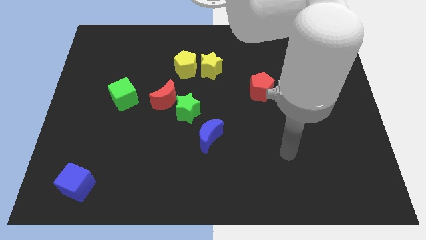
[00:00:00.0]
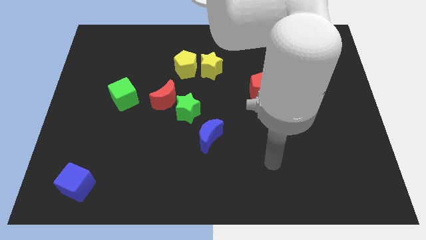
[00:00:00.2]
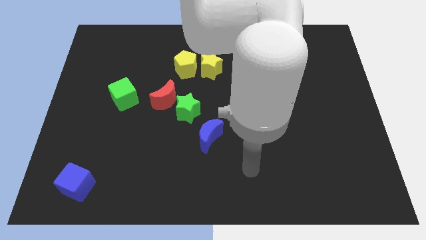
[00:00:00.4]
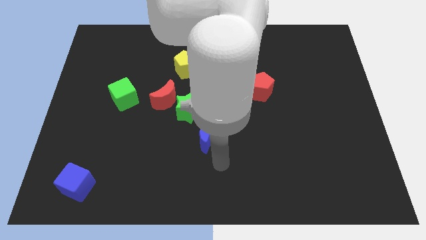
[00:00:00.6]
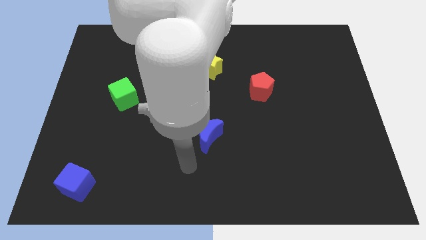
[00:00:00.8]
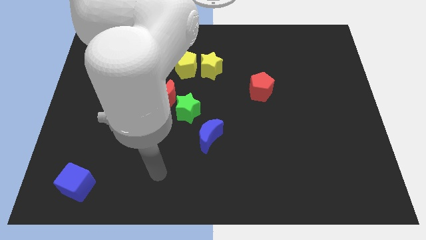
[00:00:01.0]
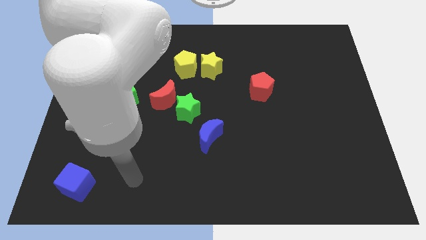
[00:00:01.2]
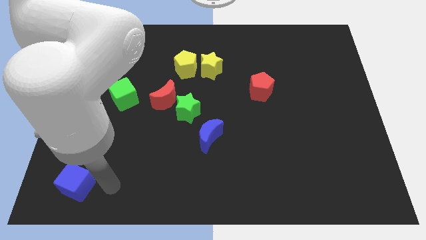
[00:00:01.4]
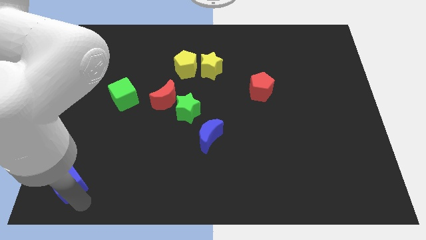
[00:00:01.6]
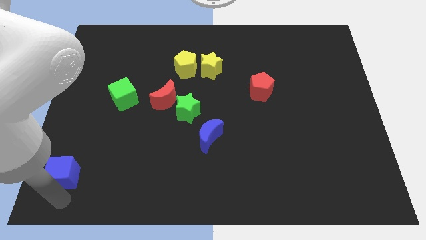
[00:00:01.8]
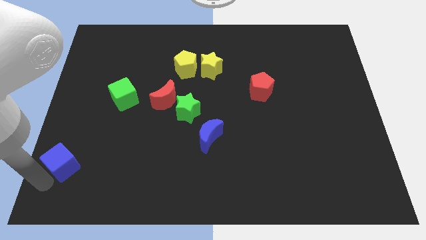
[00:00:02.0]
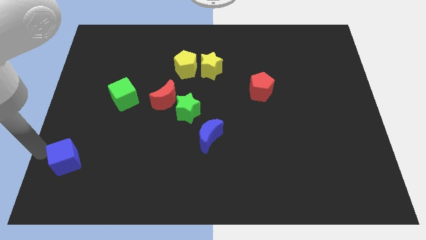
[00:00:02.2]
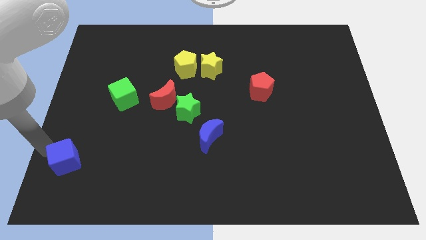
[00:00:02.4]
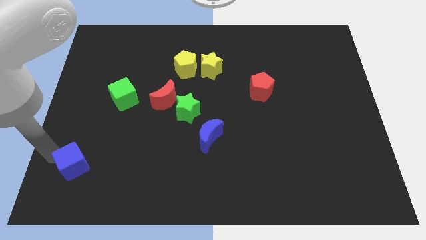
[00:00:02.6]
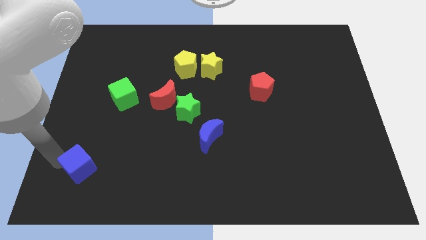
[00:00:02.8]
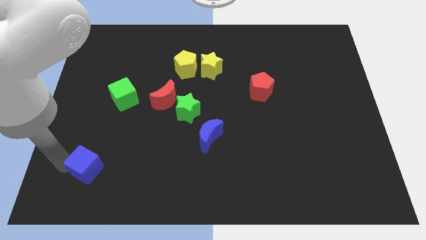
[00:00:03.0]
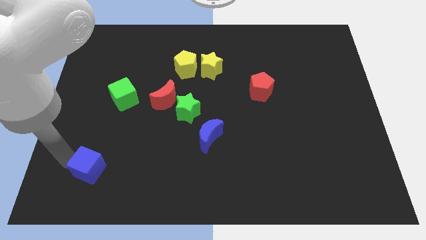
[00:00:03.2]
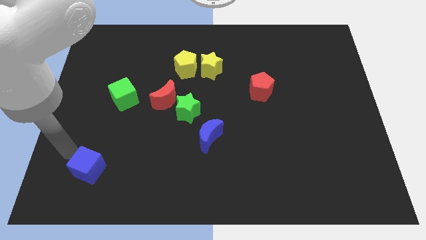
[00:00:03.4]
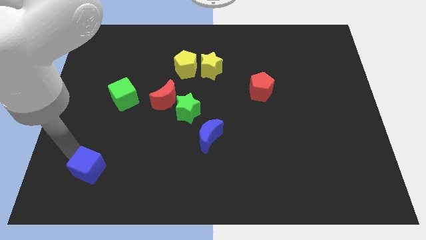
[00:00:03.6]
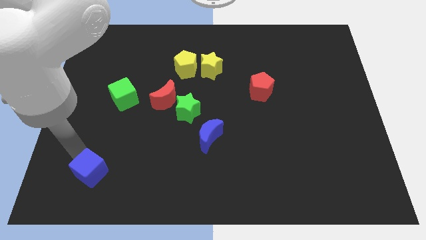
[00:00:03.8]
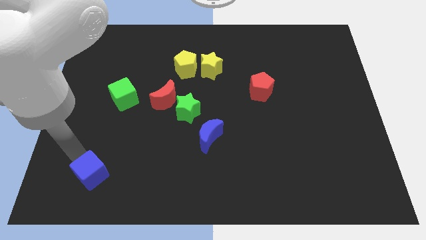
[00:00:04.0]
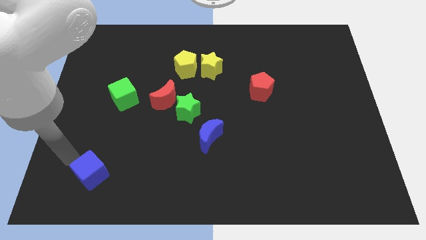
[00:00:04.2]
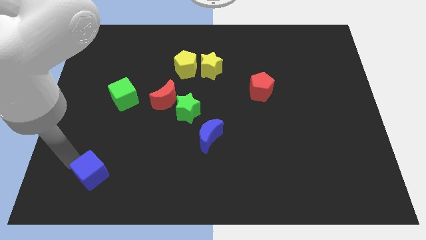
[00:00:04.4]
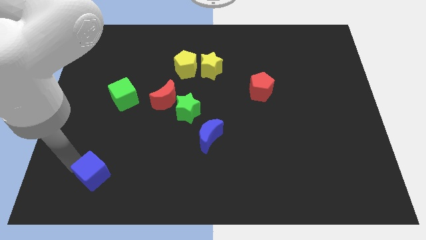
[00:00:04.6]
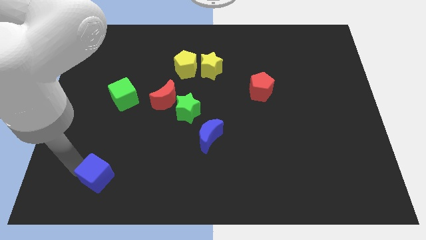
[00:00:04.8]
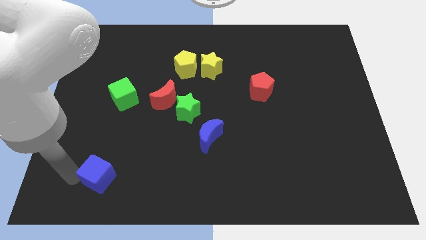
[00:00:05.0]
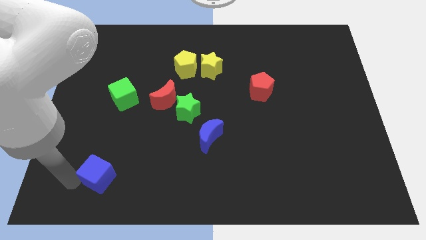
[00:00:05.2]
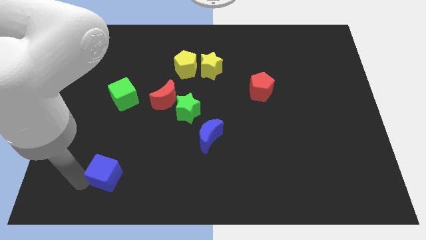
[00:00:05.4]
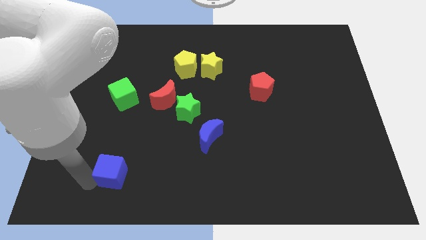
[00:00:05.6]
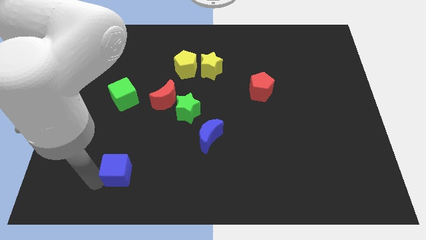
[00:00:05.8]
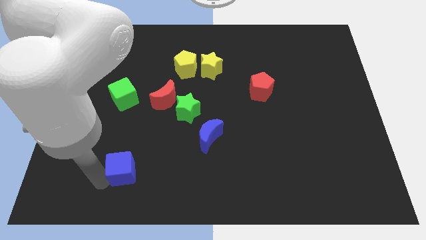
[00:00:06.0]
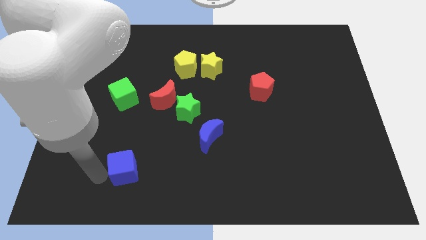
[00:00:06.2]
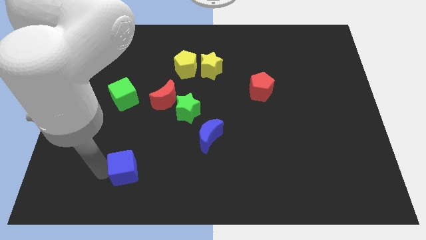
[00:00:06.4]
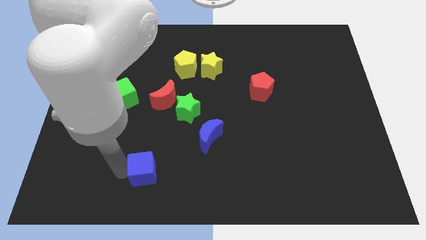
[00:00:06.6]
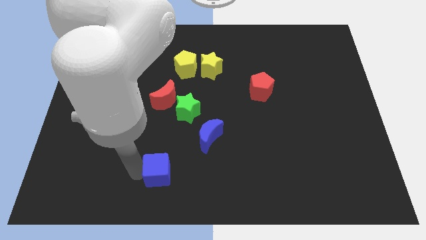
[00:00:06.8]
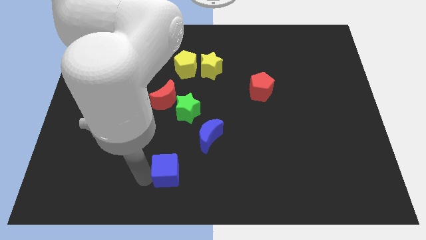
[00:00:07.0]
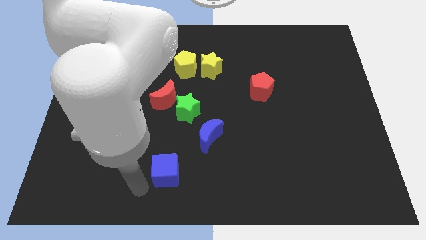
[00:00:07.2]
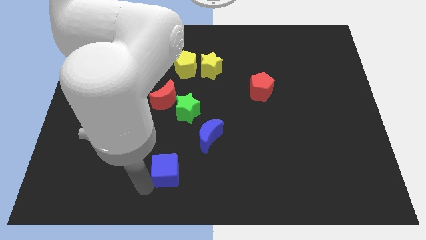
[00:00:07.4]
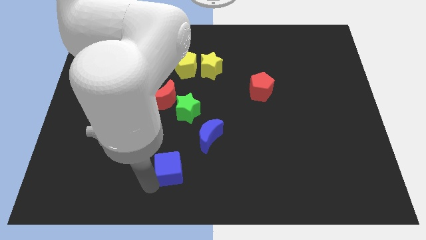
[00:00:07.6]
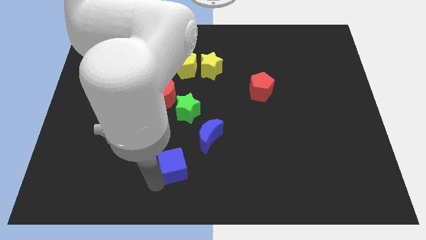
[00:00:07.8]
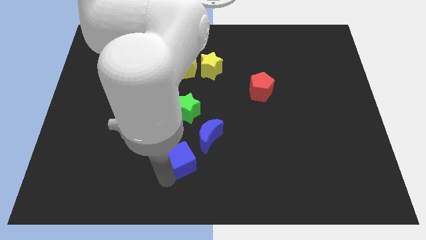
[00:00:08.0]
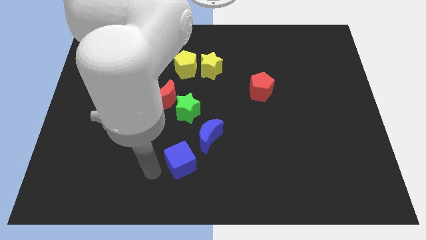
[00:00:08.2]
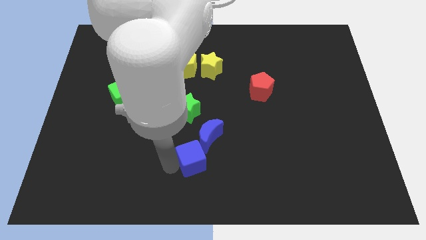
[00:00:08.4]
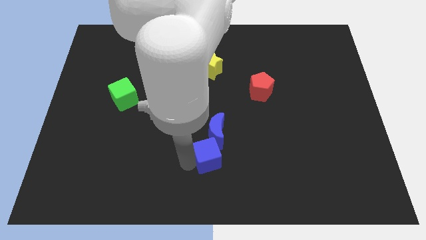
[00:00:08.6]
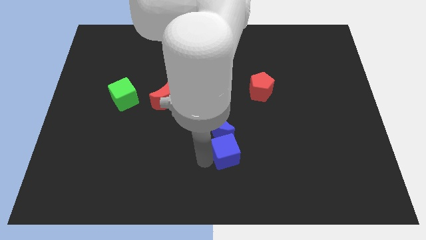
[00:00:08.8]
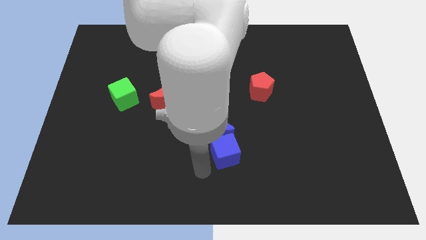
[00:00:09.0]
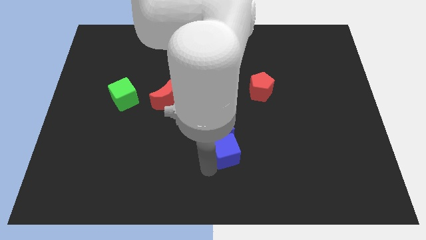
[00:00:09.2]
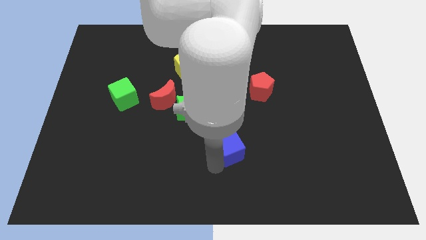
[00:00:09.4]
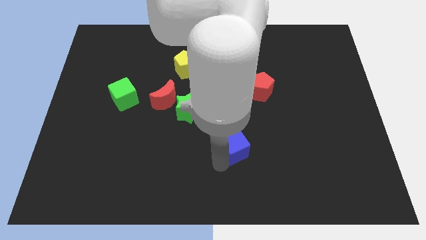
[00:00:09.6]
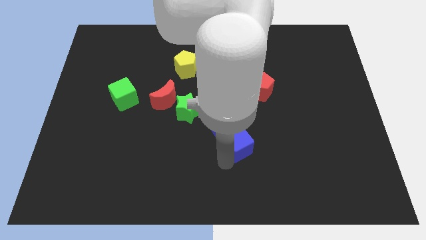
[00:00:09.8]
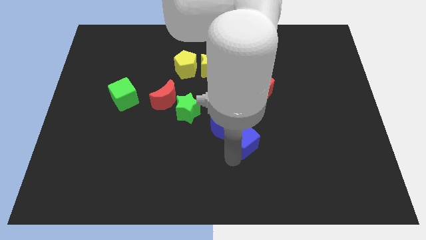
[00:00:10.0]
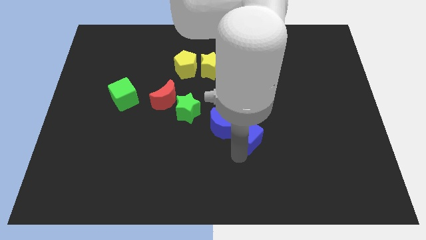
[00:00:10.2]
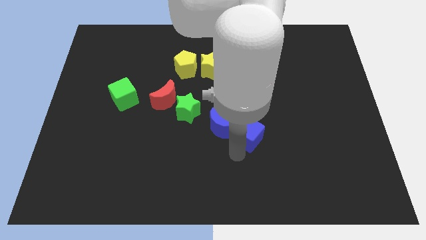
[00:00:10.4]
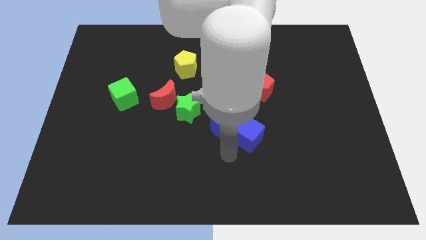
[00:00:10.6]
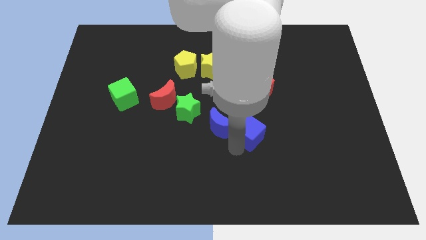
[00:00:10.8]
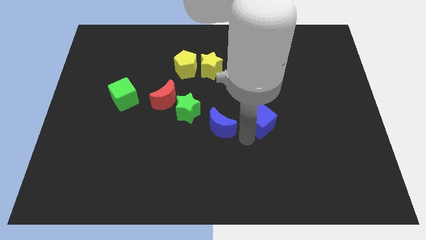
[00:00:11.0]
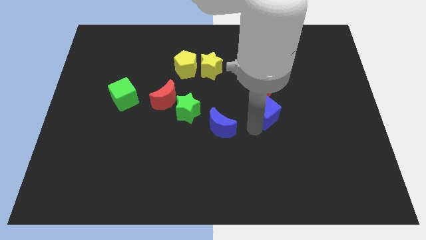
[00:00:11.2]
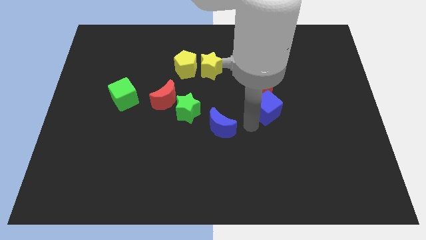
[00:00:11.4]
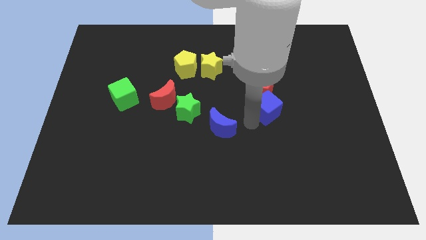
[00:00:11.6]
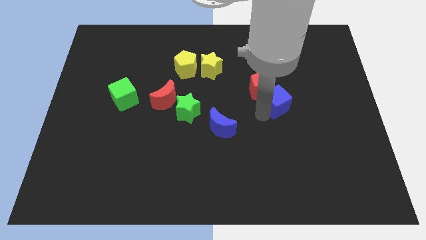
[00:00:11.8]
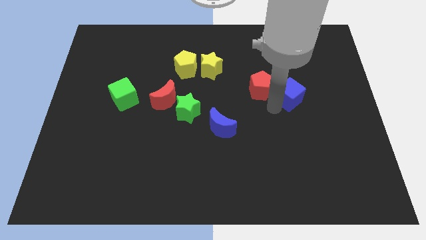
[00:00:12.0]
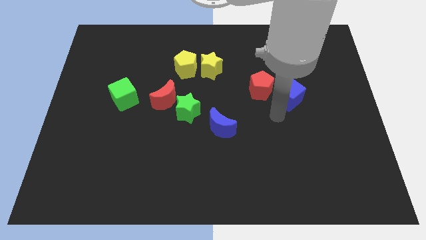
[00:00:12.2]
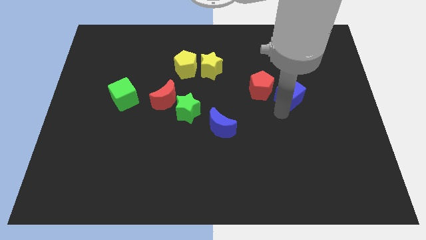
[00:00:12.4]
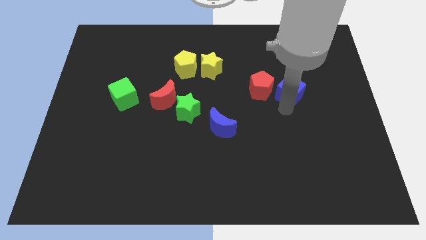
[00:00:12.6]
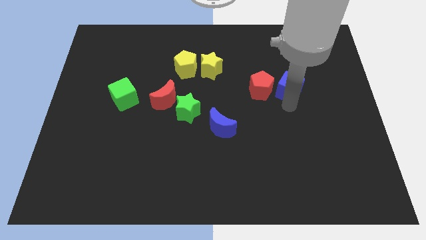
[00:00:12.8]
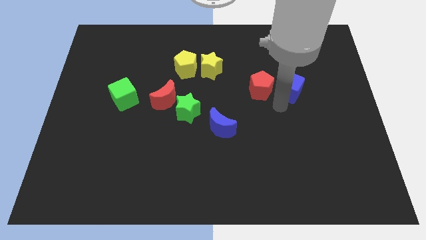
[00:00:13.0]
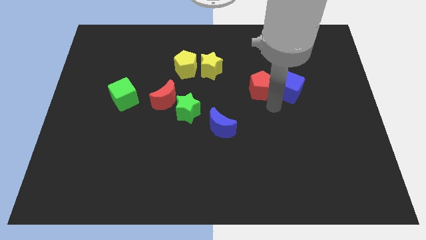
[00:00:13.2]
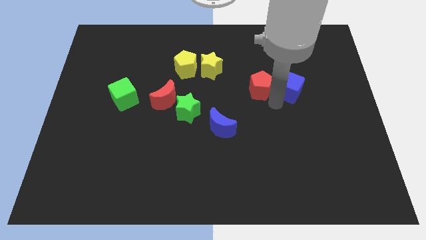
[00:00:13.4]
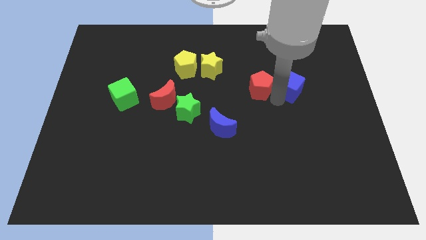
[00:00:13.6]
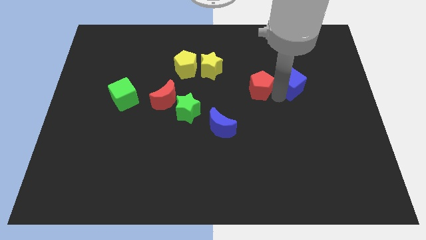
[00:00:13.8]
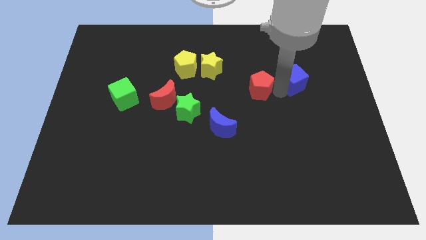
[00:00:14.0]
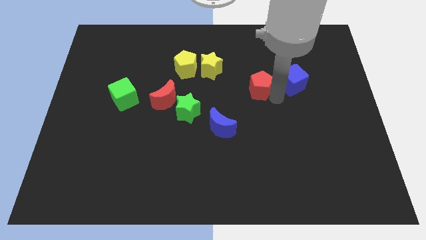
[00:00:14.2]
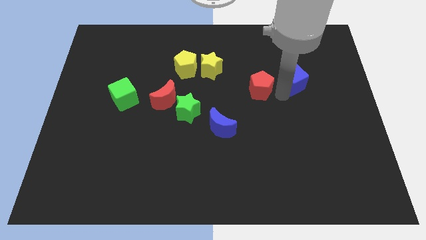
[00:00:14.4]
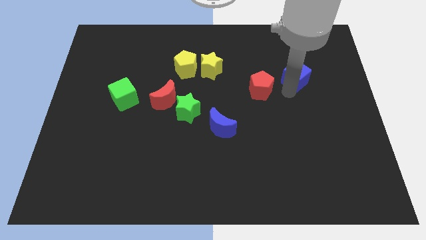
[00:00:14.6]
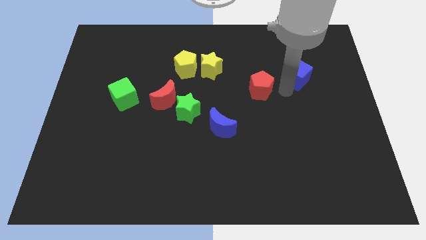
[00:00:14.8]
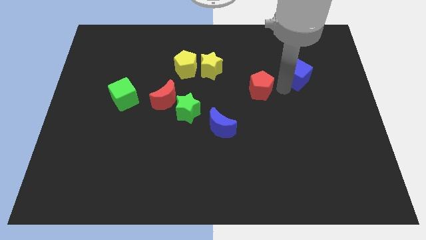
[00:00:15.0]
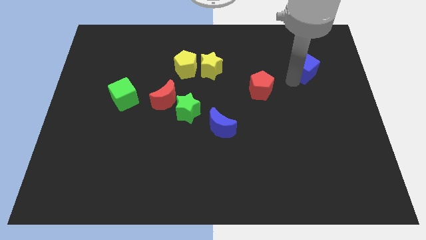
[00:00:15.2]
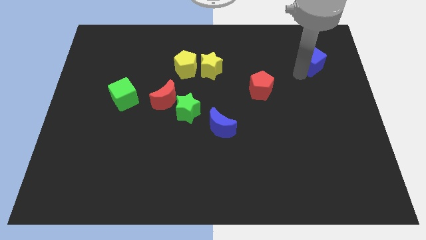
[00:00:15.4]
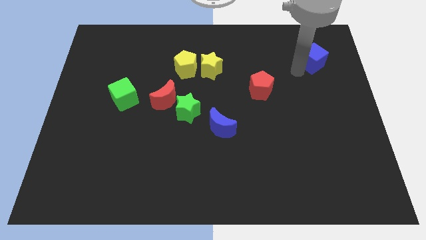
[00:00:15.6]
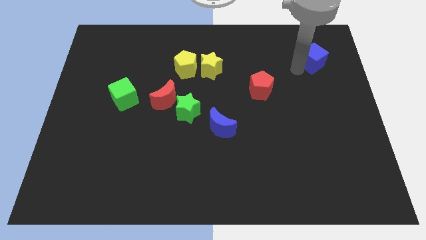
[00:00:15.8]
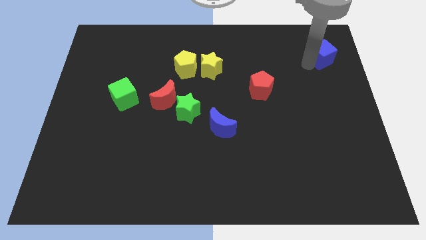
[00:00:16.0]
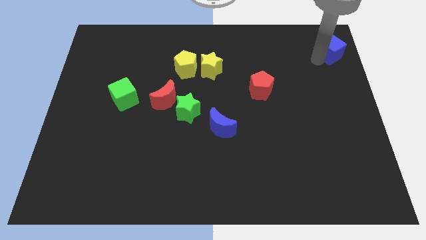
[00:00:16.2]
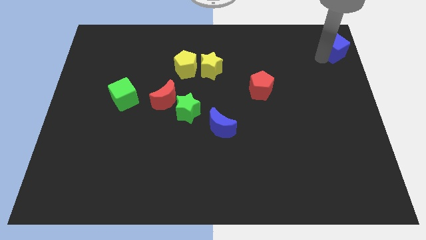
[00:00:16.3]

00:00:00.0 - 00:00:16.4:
push the blue cube to the upper right corner
